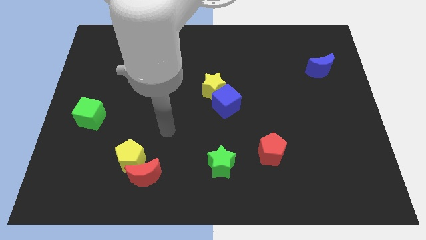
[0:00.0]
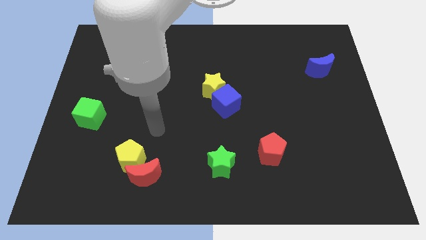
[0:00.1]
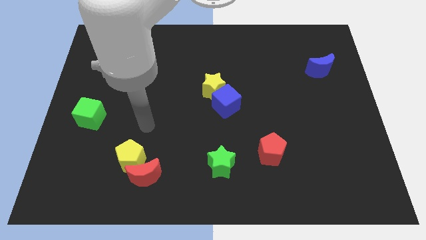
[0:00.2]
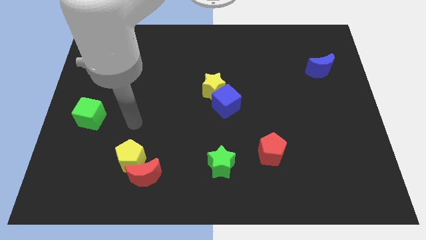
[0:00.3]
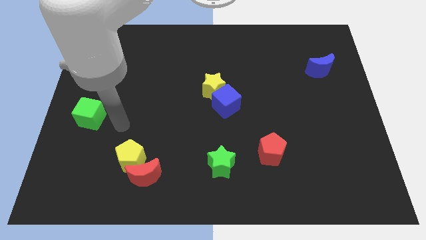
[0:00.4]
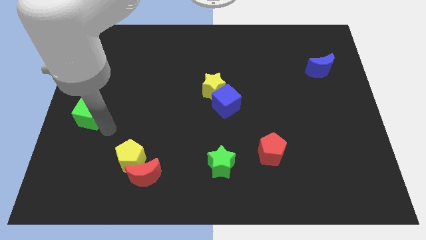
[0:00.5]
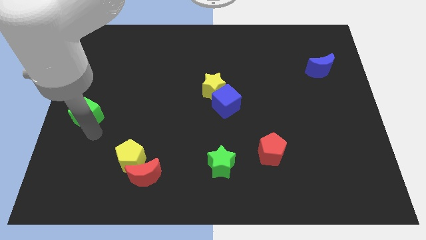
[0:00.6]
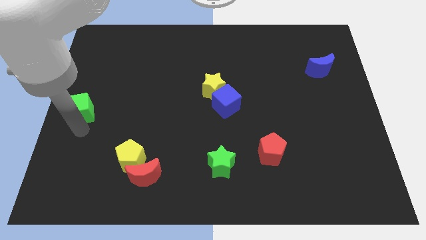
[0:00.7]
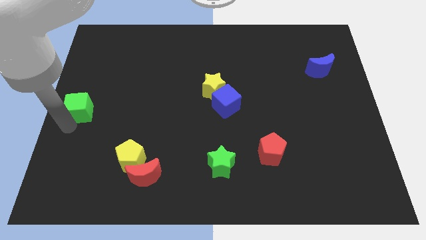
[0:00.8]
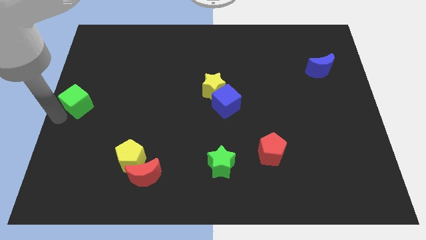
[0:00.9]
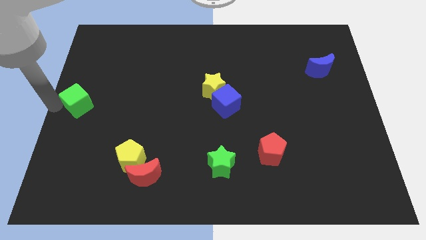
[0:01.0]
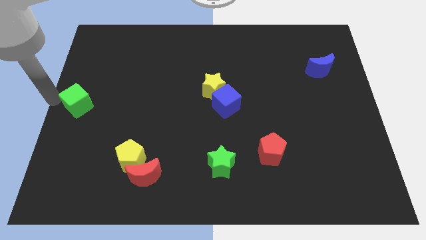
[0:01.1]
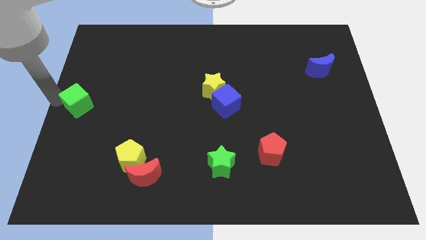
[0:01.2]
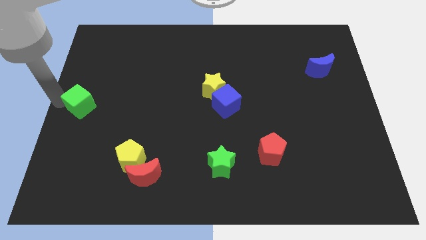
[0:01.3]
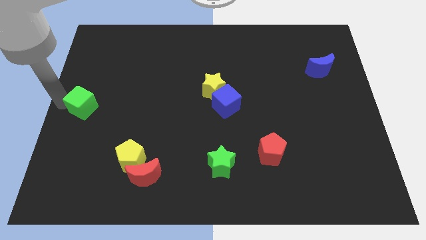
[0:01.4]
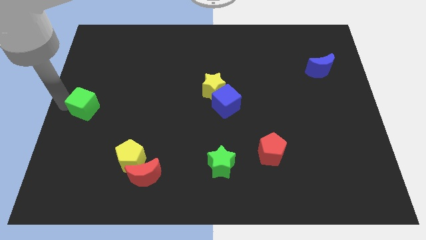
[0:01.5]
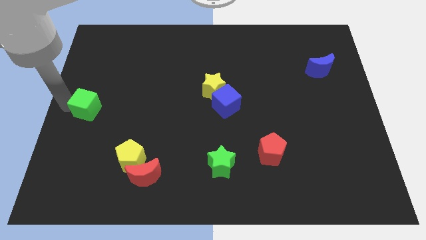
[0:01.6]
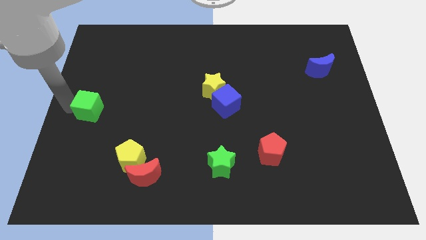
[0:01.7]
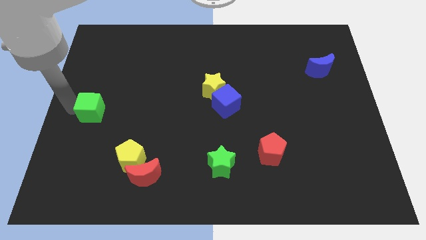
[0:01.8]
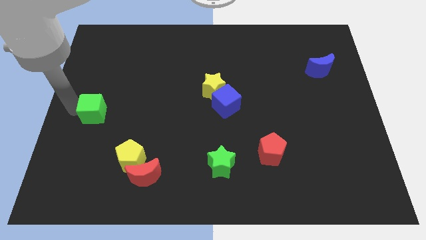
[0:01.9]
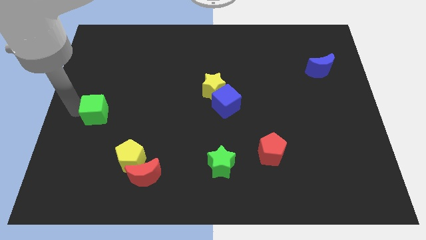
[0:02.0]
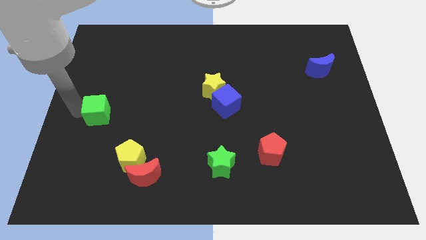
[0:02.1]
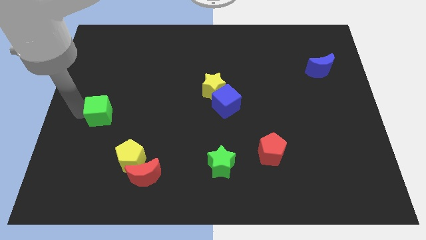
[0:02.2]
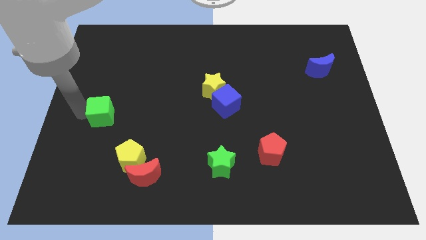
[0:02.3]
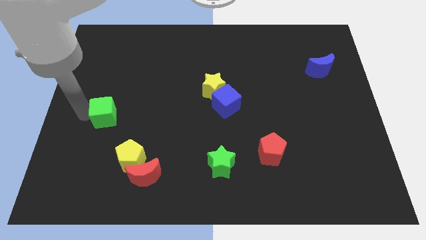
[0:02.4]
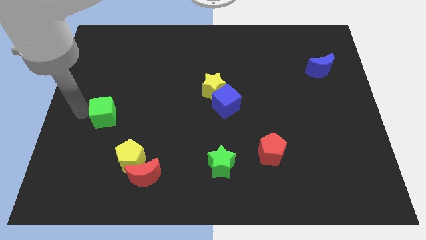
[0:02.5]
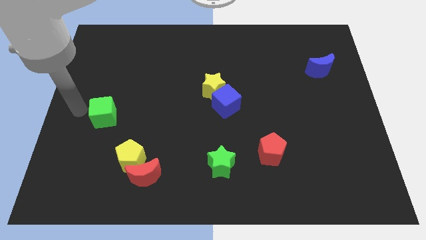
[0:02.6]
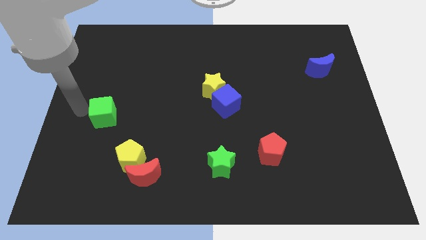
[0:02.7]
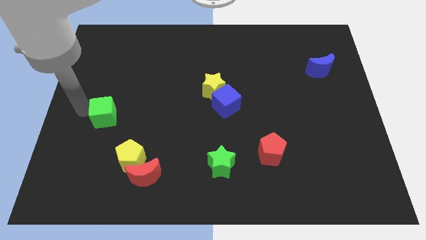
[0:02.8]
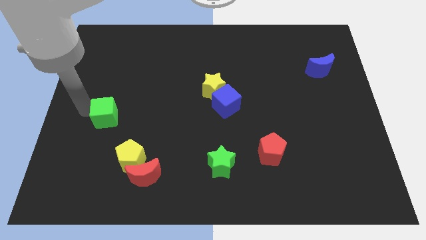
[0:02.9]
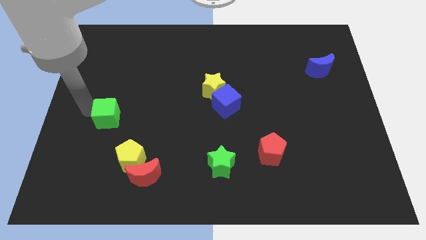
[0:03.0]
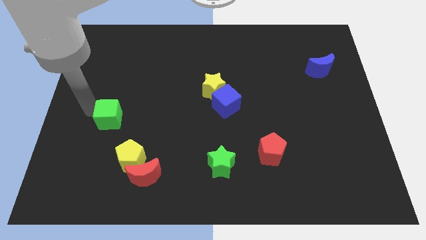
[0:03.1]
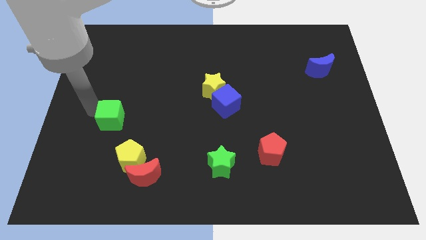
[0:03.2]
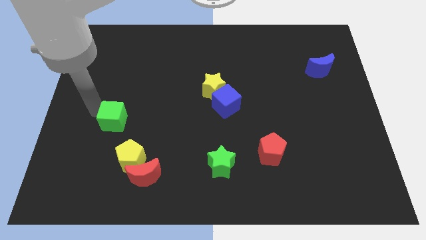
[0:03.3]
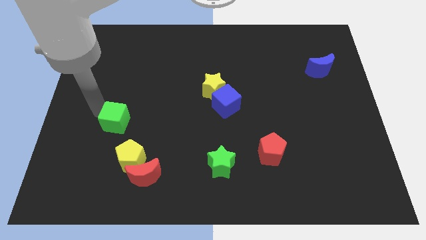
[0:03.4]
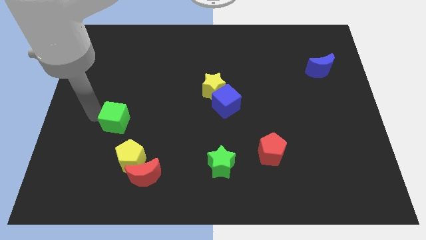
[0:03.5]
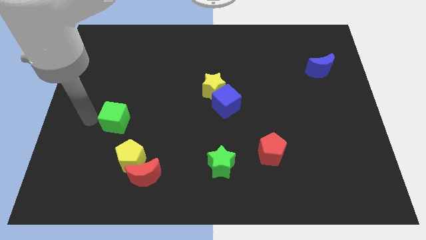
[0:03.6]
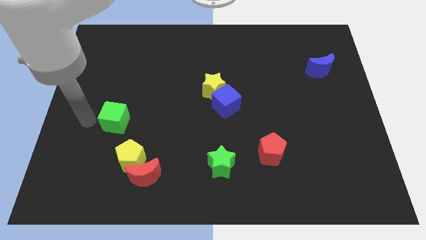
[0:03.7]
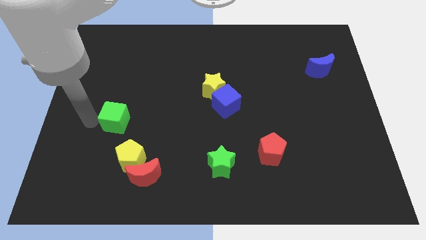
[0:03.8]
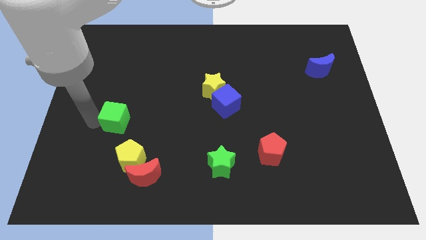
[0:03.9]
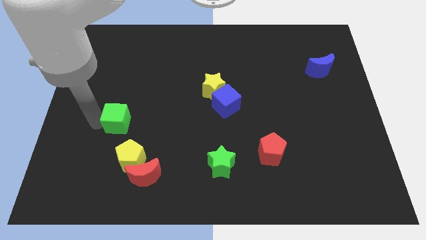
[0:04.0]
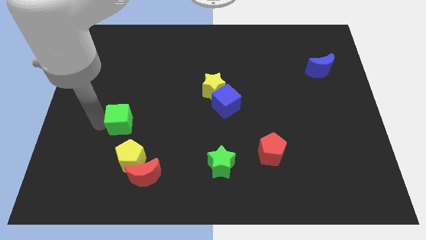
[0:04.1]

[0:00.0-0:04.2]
slide the green cube a bit right

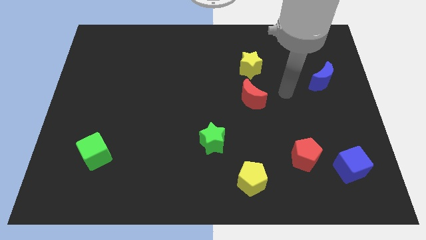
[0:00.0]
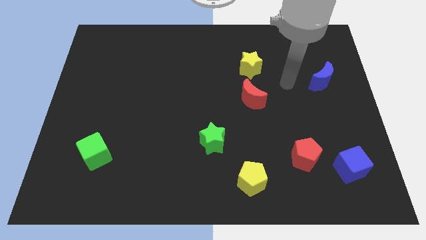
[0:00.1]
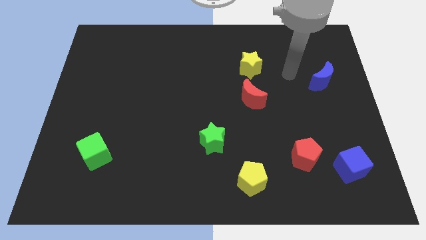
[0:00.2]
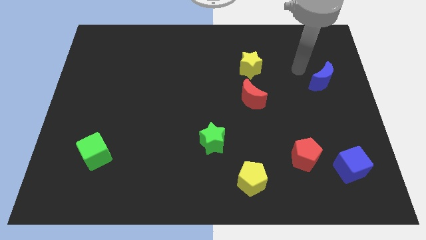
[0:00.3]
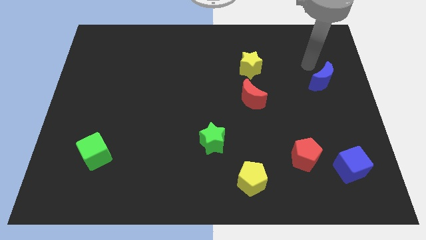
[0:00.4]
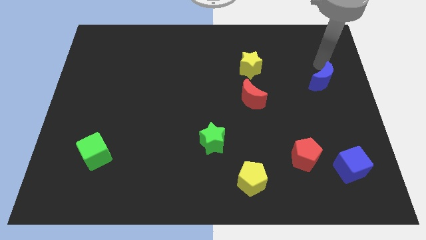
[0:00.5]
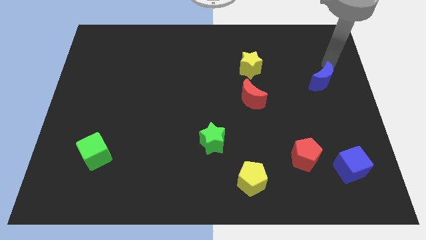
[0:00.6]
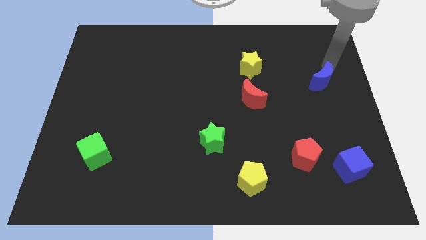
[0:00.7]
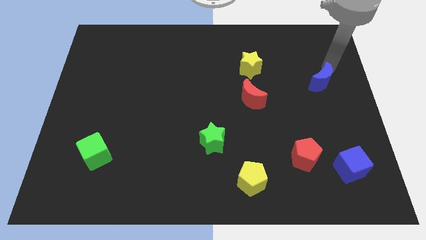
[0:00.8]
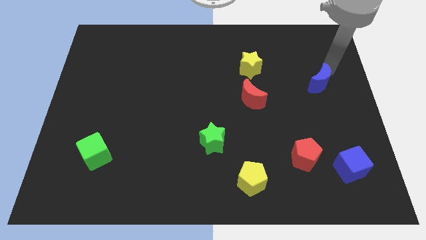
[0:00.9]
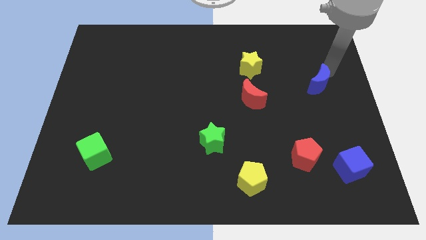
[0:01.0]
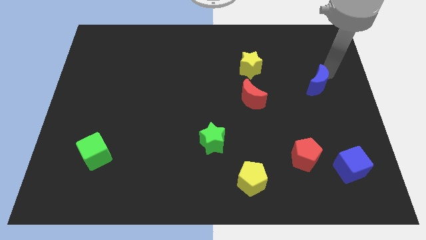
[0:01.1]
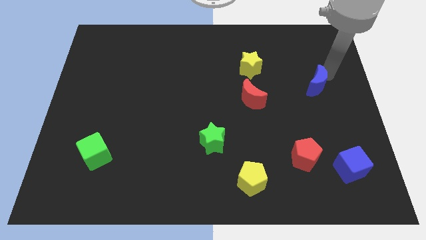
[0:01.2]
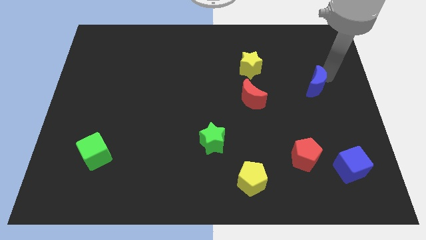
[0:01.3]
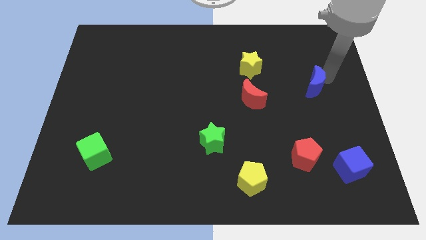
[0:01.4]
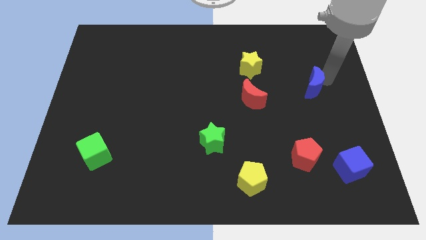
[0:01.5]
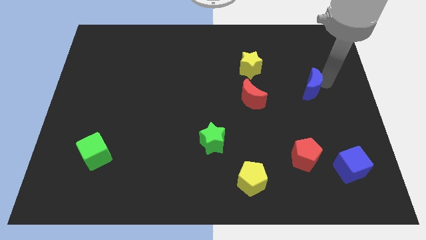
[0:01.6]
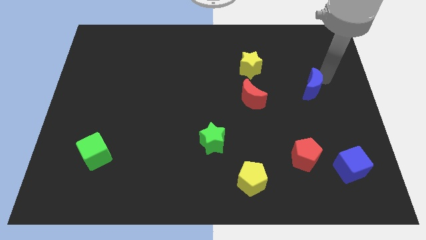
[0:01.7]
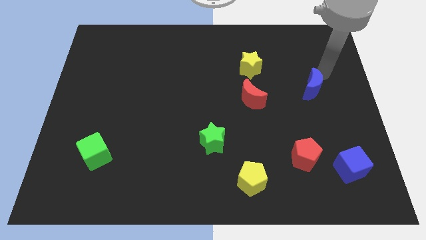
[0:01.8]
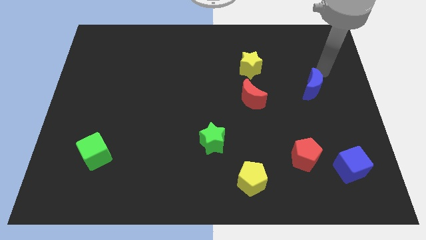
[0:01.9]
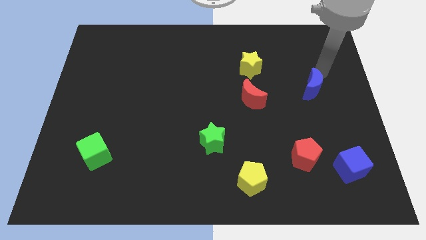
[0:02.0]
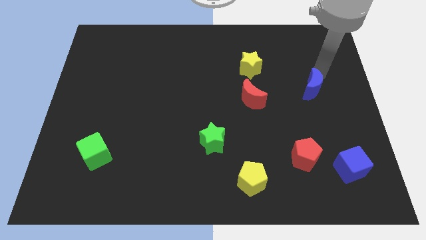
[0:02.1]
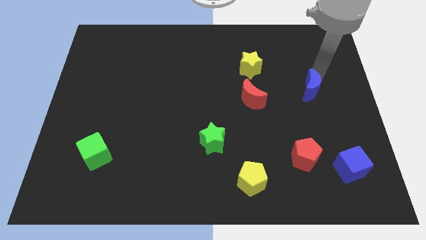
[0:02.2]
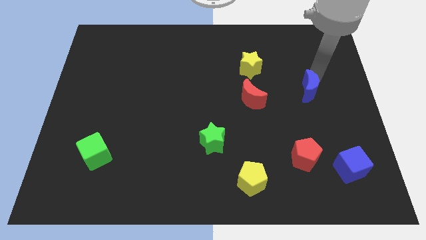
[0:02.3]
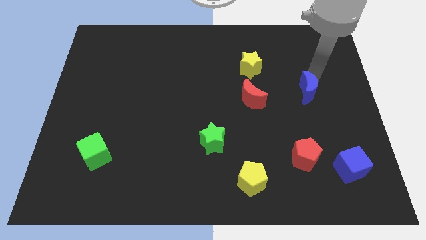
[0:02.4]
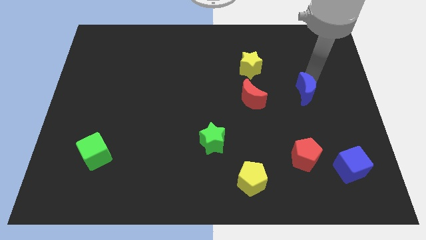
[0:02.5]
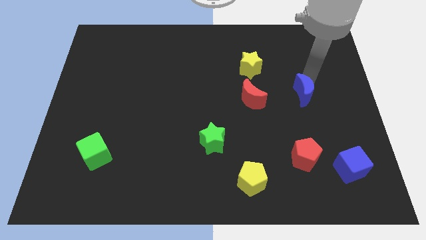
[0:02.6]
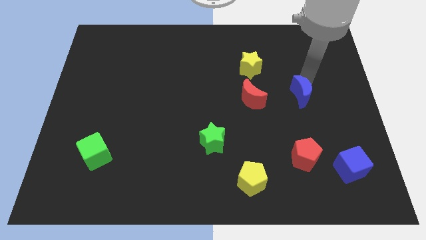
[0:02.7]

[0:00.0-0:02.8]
push the blue moon downwards and then to the left a little

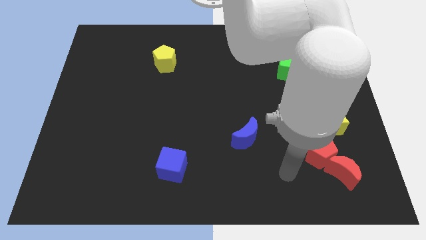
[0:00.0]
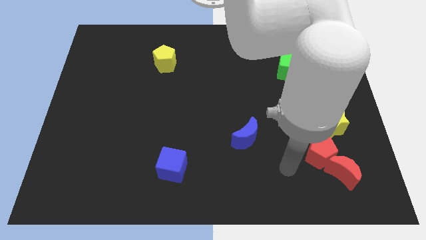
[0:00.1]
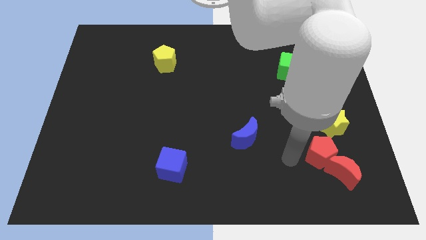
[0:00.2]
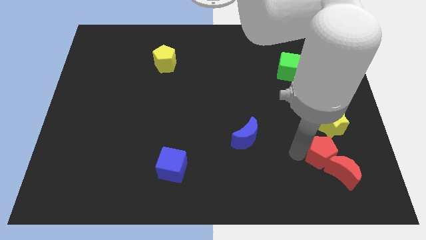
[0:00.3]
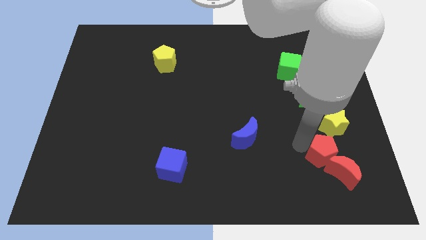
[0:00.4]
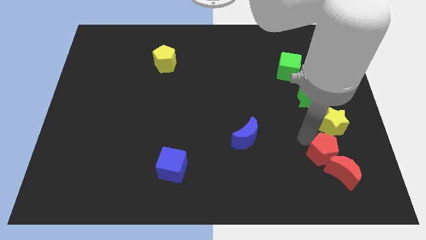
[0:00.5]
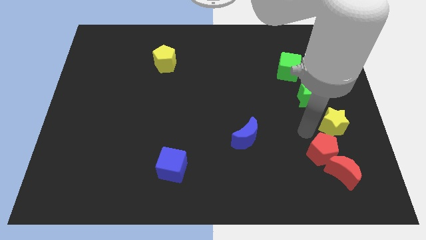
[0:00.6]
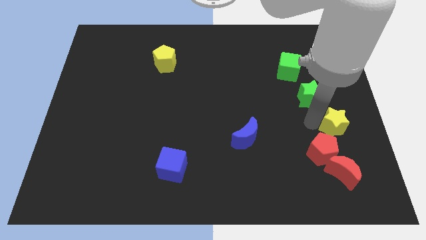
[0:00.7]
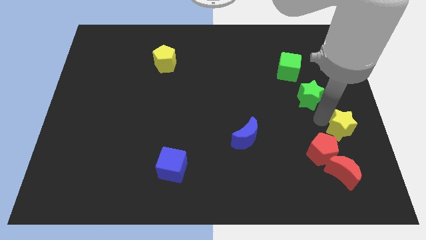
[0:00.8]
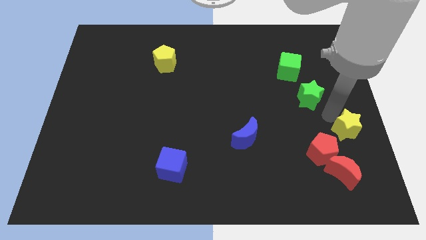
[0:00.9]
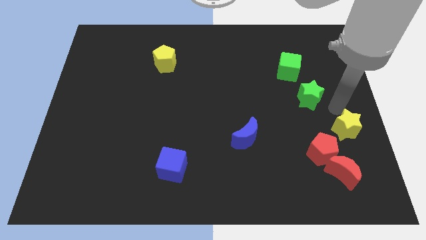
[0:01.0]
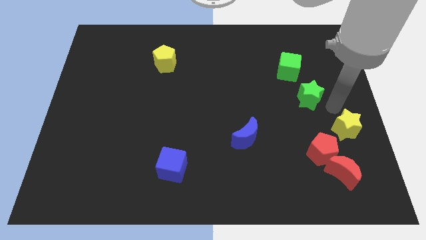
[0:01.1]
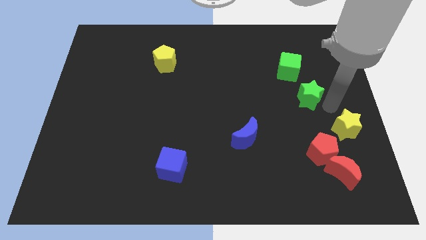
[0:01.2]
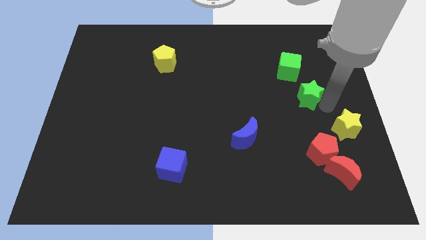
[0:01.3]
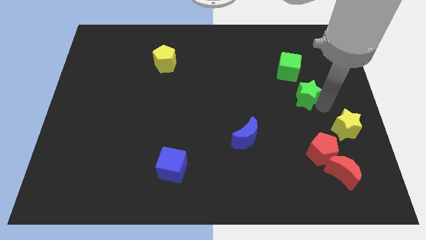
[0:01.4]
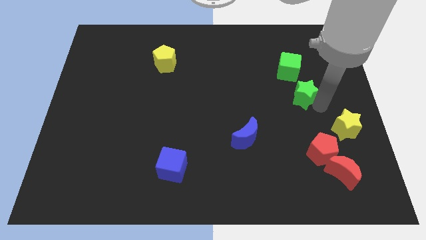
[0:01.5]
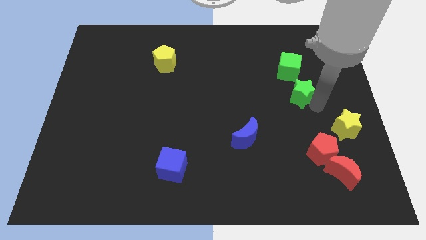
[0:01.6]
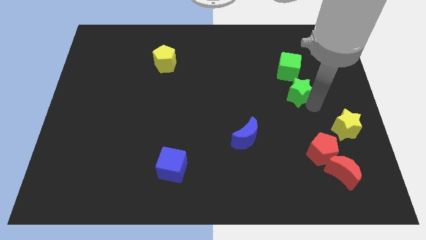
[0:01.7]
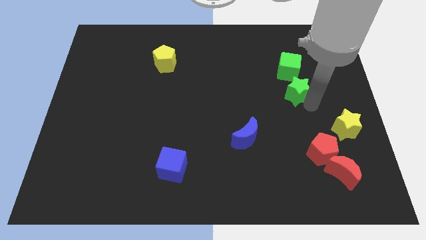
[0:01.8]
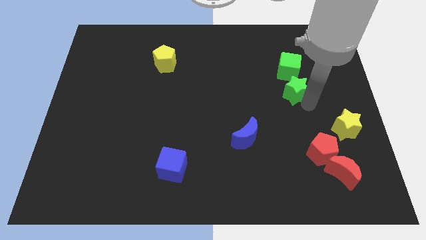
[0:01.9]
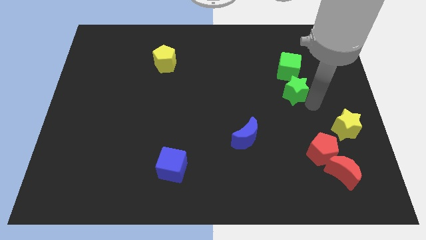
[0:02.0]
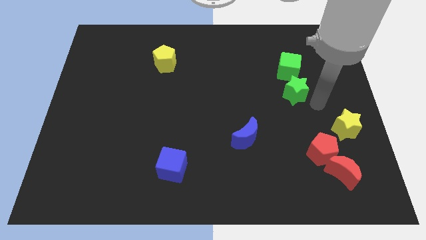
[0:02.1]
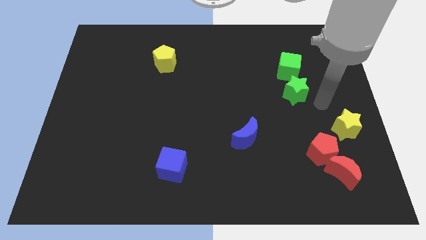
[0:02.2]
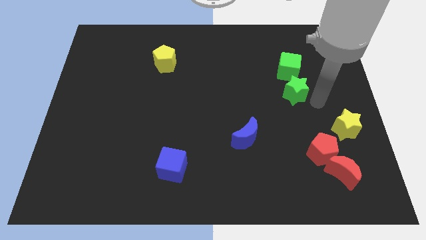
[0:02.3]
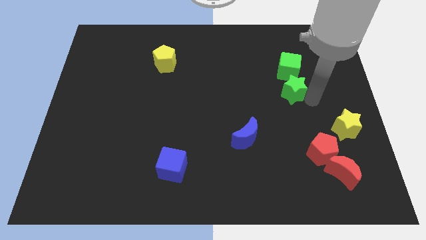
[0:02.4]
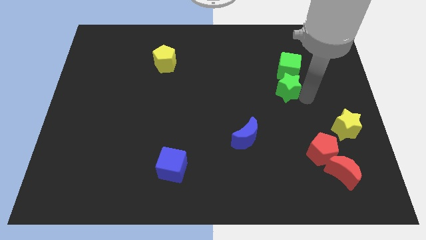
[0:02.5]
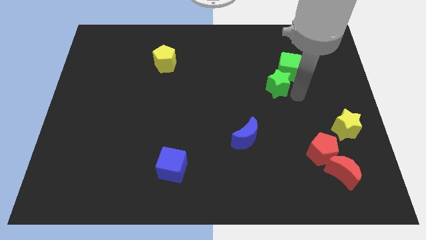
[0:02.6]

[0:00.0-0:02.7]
slightly slide the green star upwards and then to the left
